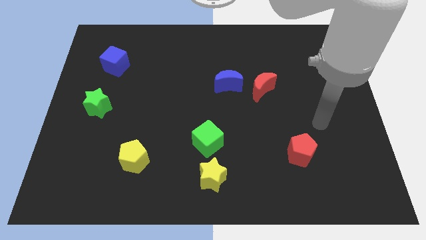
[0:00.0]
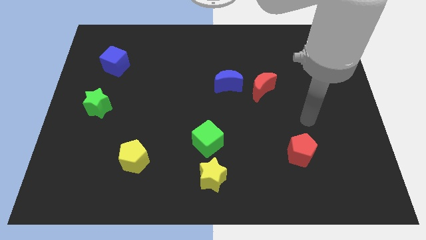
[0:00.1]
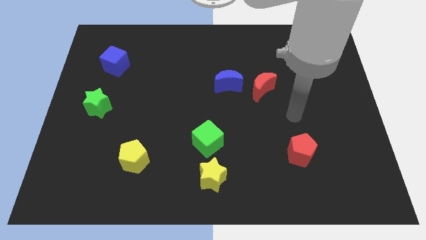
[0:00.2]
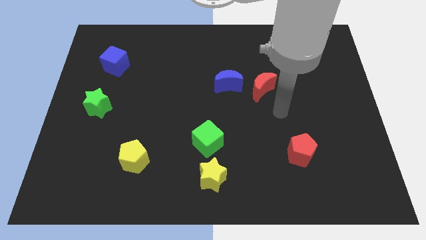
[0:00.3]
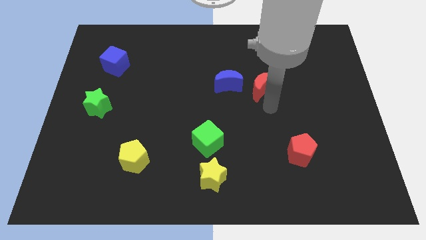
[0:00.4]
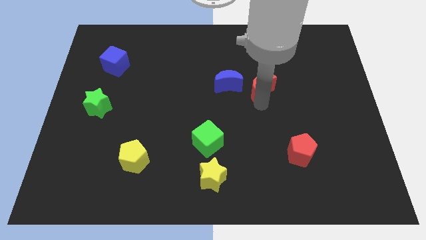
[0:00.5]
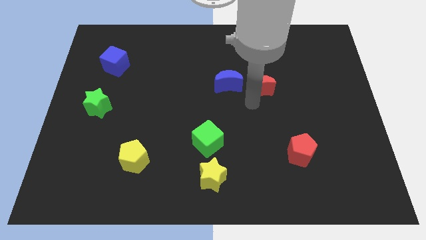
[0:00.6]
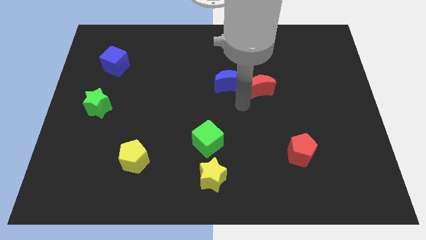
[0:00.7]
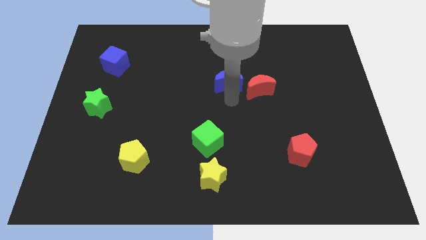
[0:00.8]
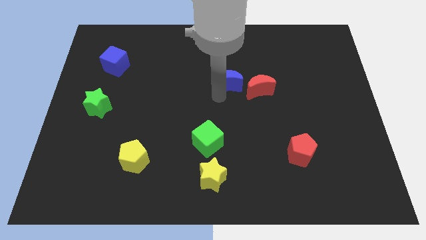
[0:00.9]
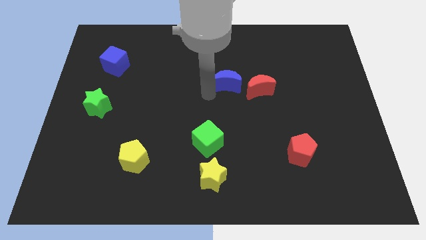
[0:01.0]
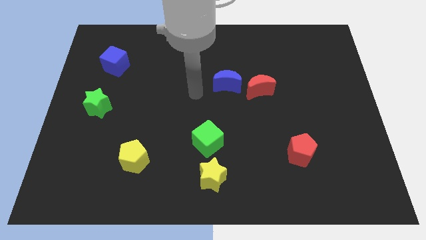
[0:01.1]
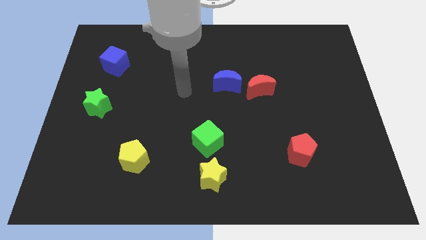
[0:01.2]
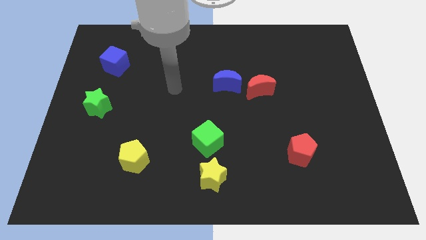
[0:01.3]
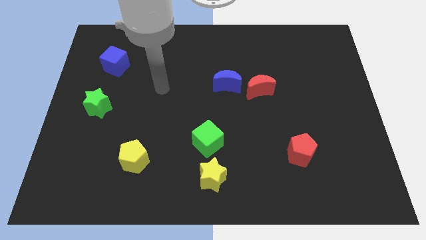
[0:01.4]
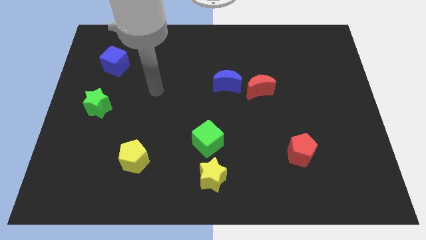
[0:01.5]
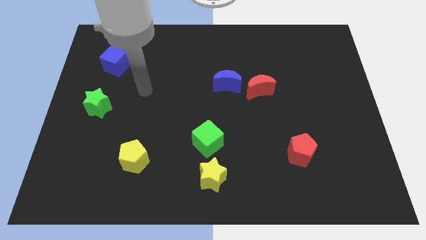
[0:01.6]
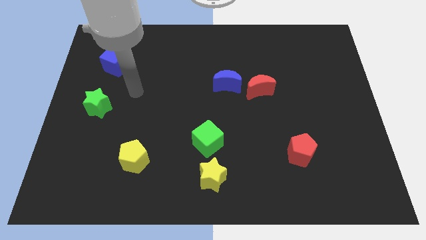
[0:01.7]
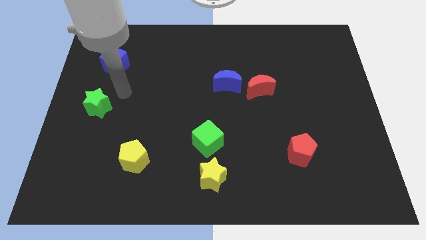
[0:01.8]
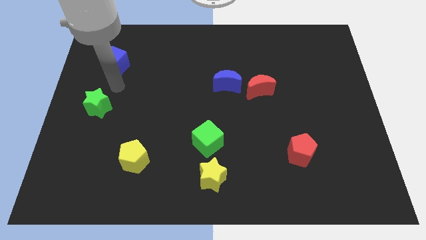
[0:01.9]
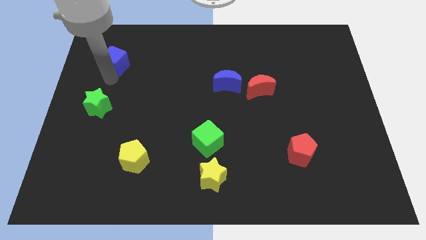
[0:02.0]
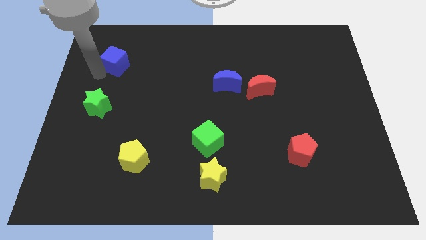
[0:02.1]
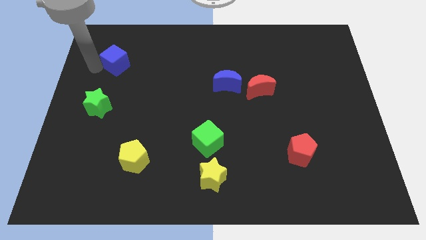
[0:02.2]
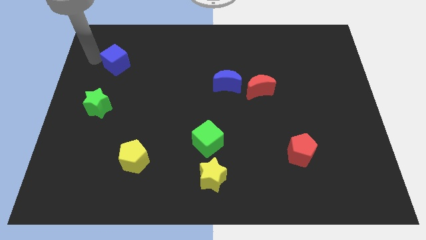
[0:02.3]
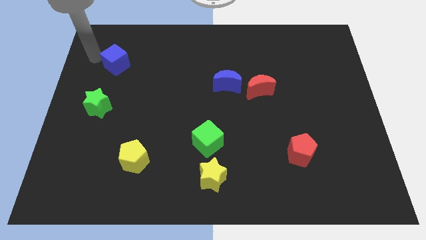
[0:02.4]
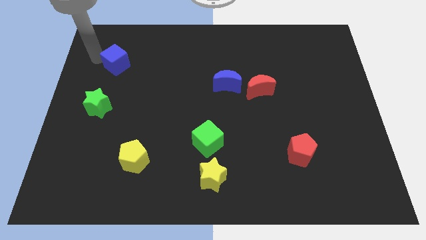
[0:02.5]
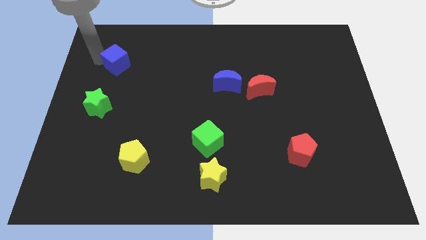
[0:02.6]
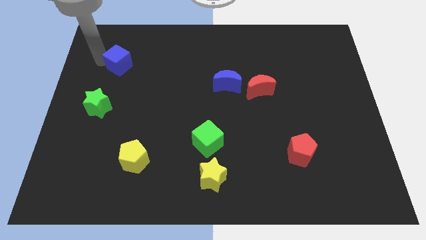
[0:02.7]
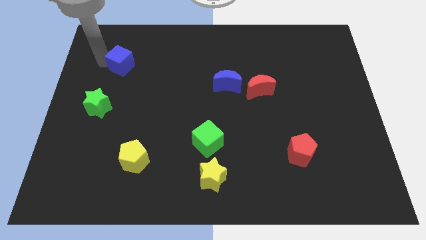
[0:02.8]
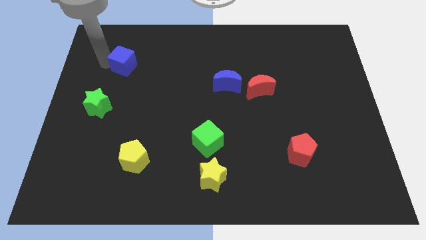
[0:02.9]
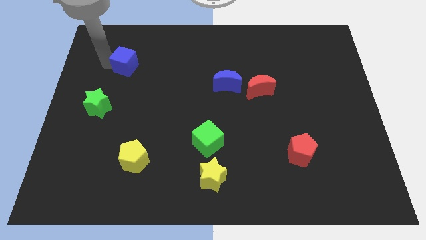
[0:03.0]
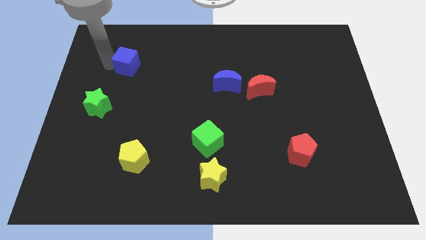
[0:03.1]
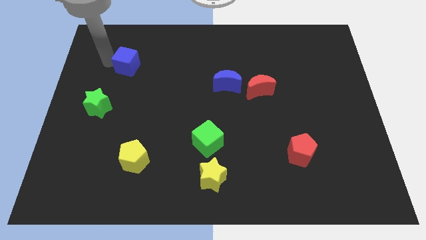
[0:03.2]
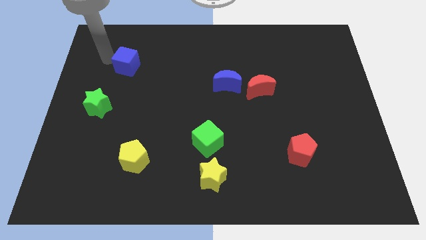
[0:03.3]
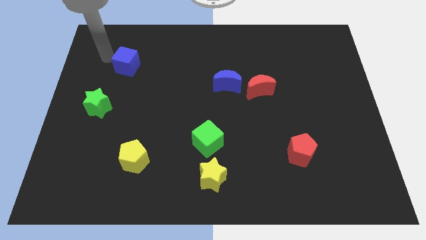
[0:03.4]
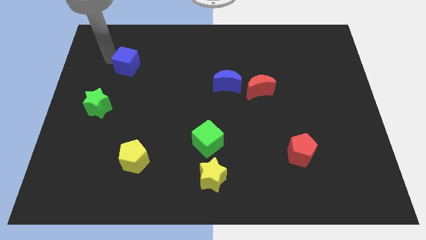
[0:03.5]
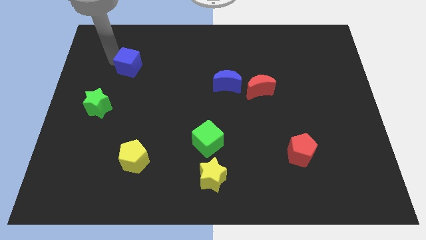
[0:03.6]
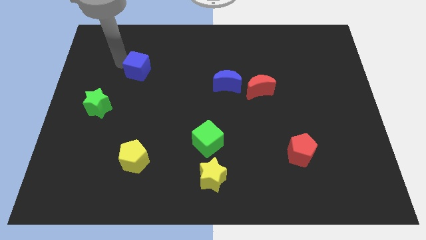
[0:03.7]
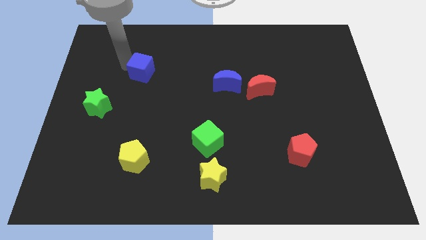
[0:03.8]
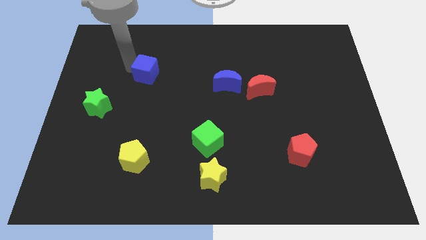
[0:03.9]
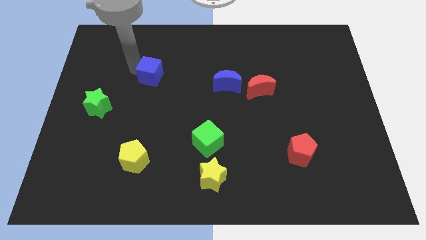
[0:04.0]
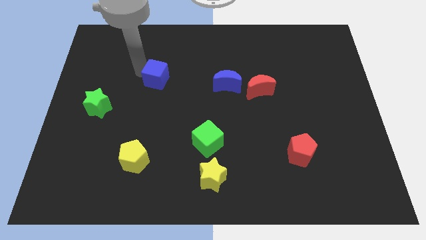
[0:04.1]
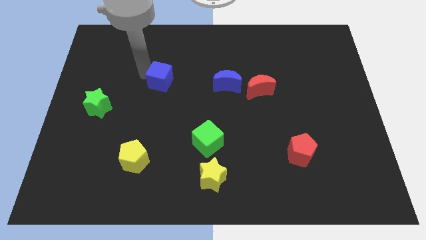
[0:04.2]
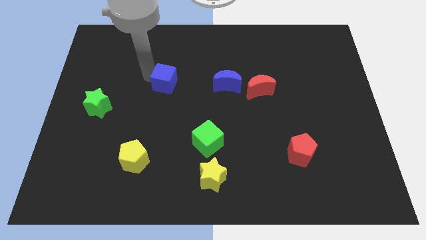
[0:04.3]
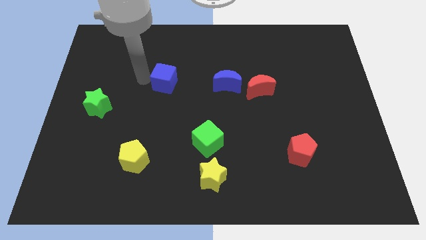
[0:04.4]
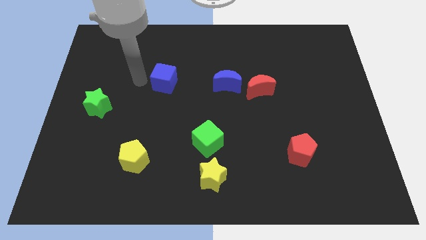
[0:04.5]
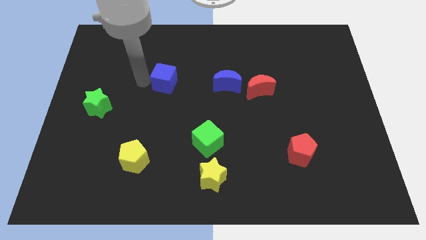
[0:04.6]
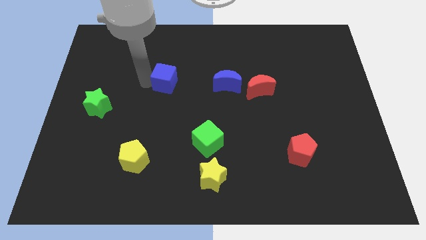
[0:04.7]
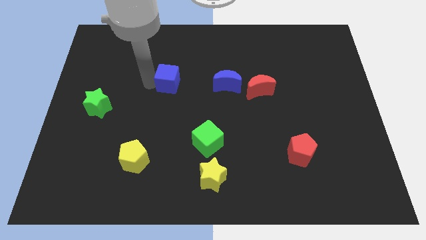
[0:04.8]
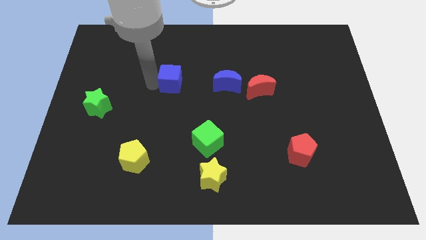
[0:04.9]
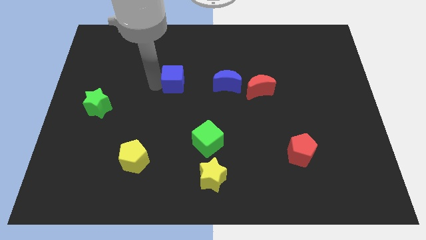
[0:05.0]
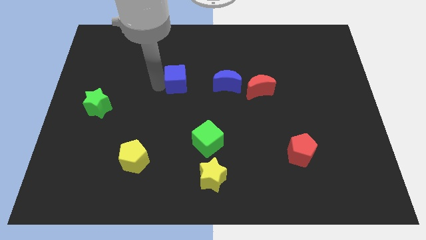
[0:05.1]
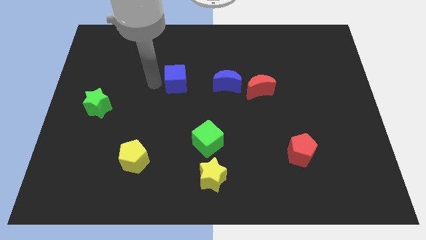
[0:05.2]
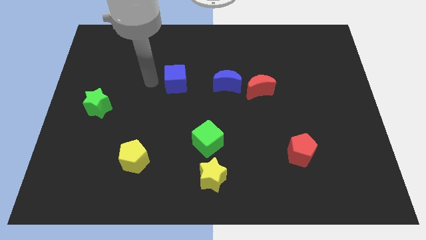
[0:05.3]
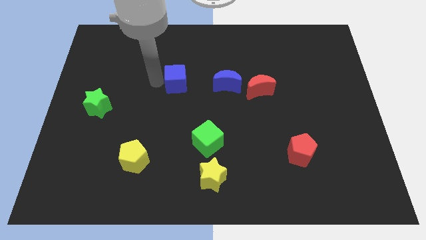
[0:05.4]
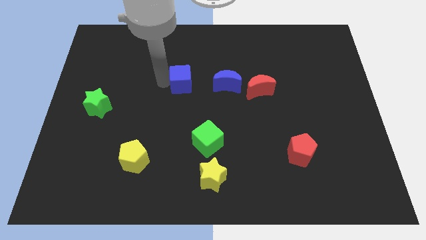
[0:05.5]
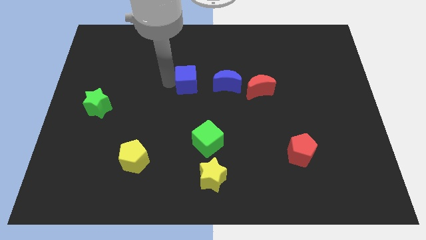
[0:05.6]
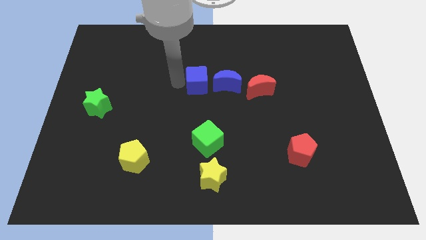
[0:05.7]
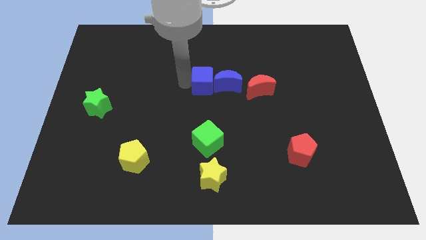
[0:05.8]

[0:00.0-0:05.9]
slide the blue cube close to the blue moon

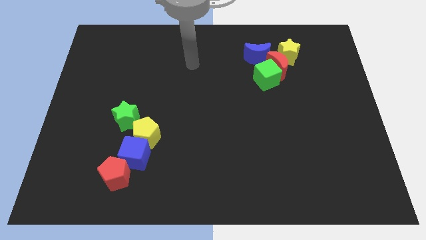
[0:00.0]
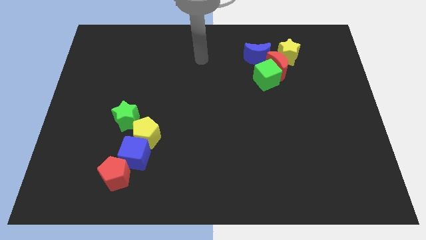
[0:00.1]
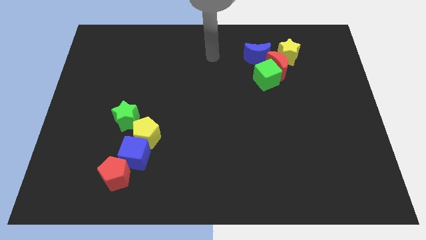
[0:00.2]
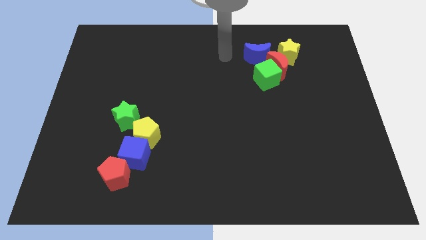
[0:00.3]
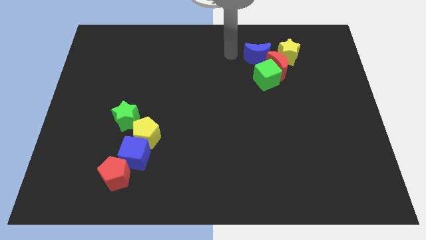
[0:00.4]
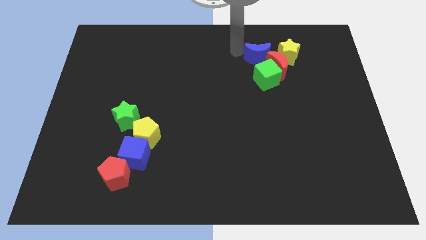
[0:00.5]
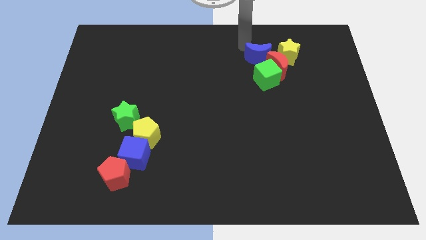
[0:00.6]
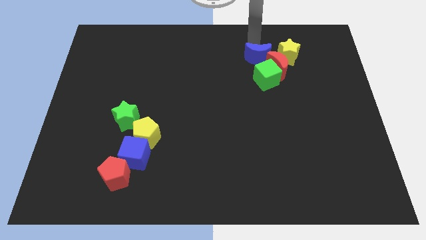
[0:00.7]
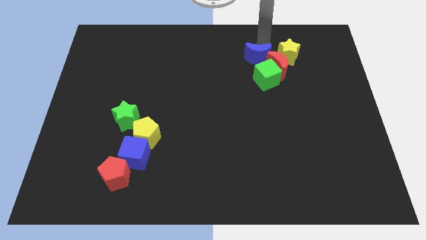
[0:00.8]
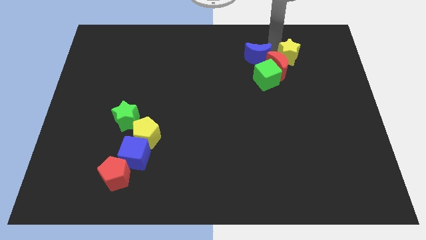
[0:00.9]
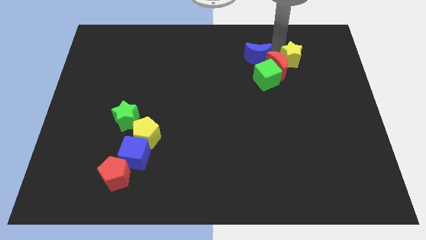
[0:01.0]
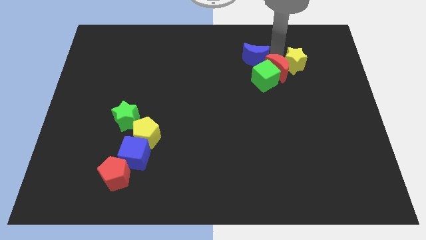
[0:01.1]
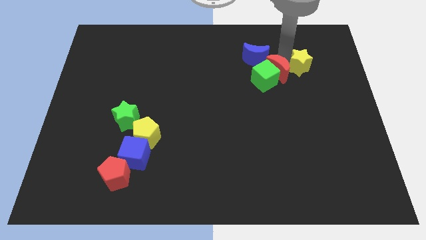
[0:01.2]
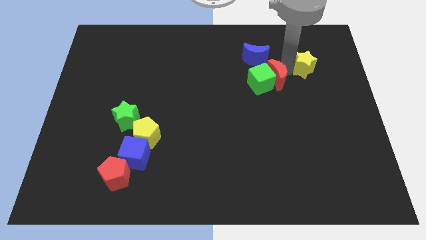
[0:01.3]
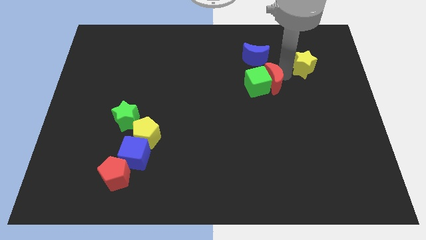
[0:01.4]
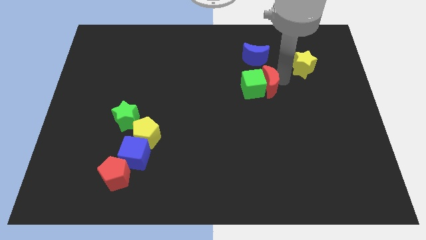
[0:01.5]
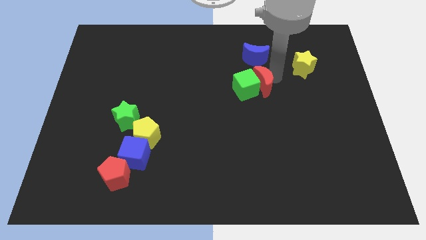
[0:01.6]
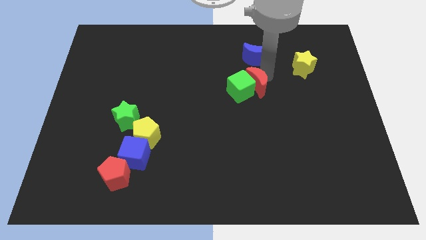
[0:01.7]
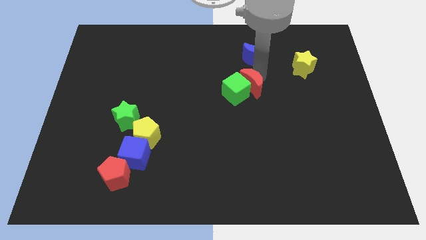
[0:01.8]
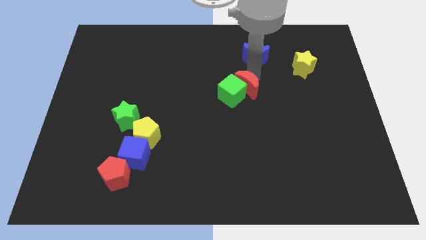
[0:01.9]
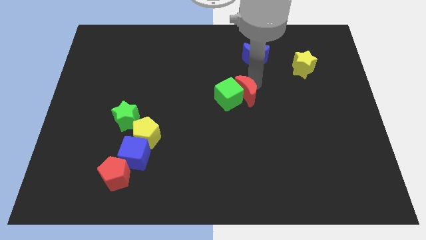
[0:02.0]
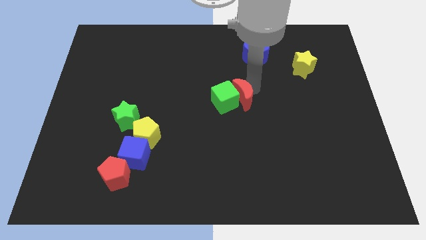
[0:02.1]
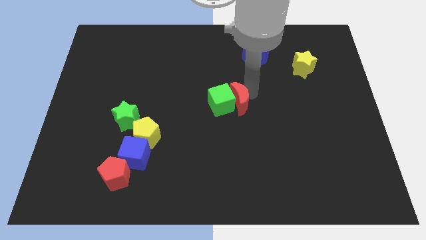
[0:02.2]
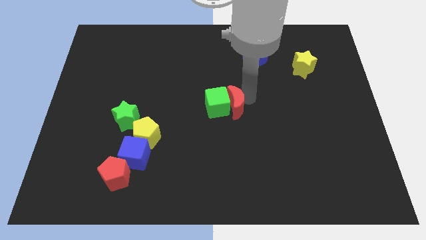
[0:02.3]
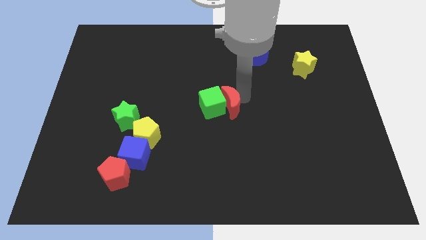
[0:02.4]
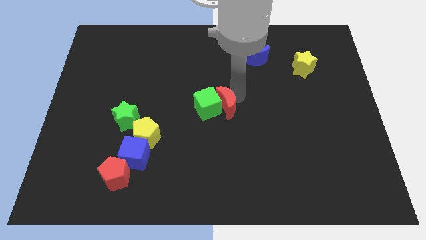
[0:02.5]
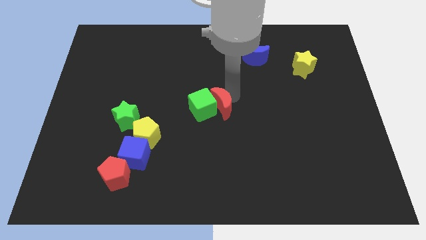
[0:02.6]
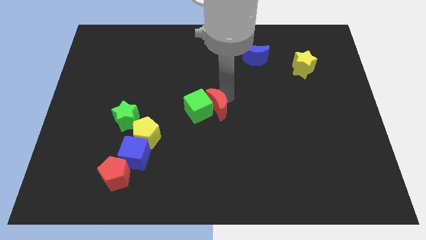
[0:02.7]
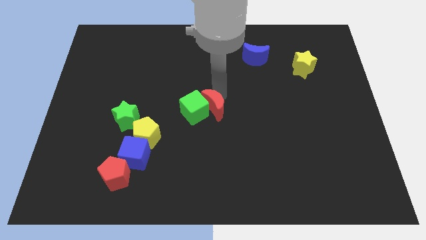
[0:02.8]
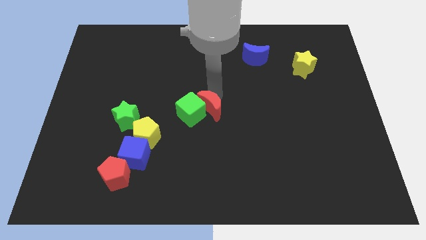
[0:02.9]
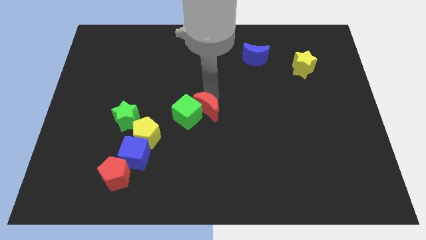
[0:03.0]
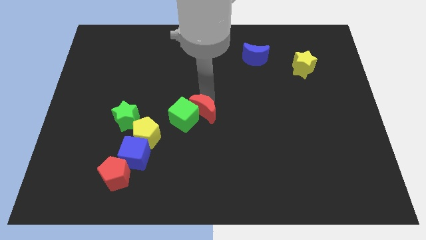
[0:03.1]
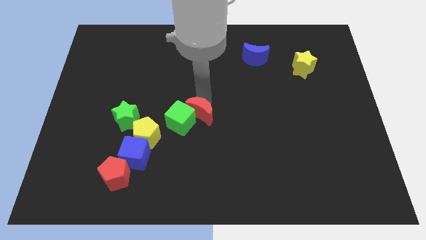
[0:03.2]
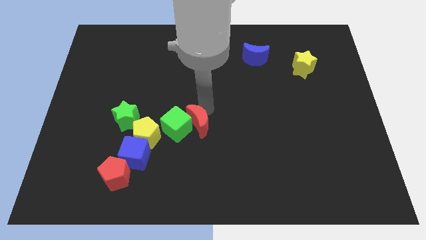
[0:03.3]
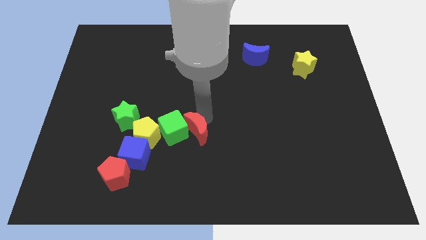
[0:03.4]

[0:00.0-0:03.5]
push the green cube towards the yellow pentagon
